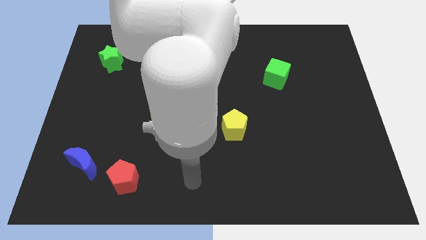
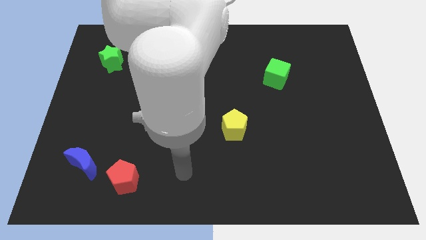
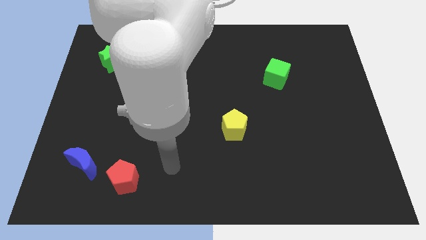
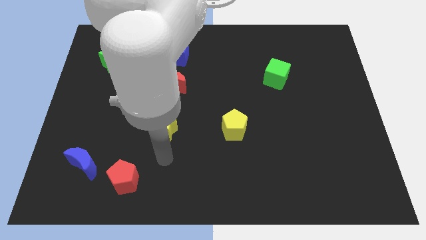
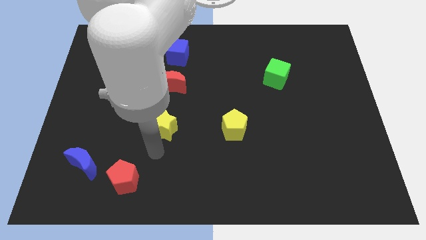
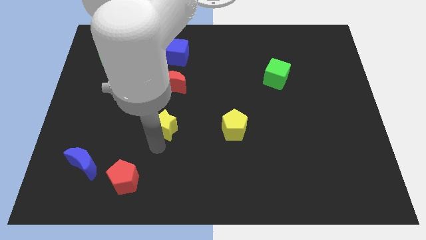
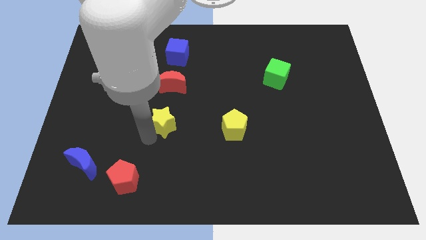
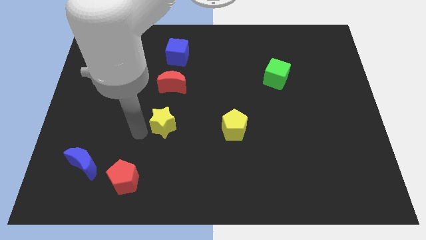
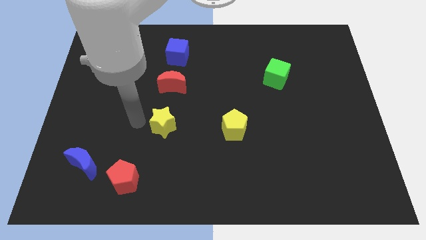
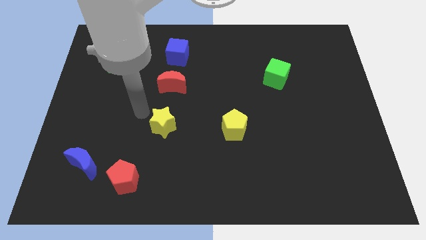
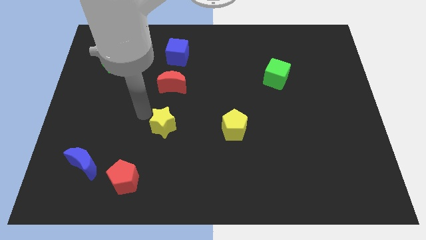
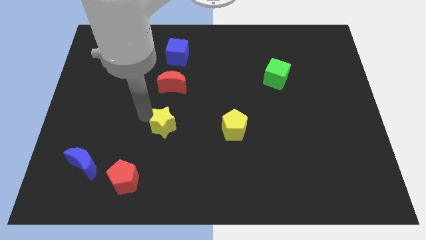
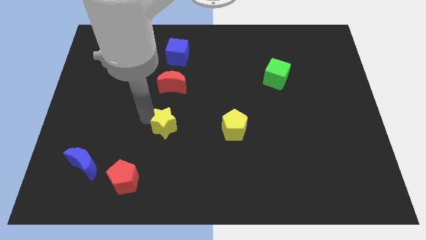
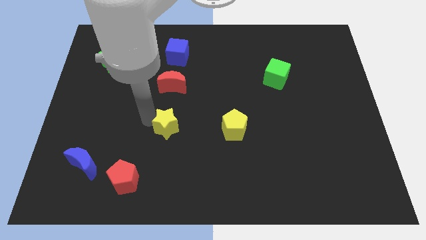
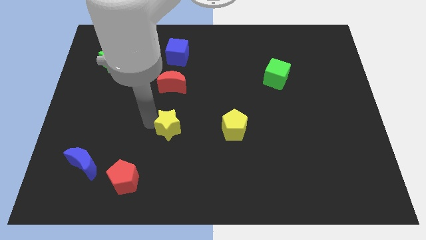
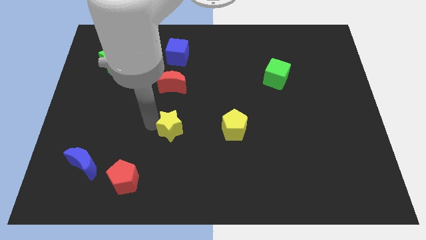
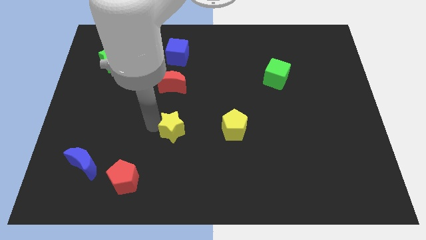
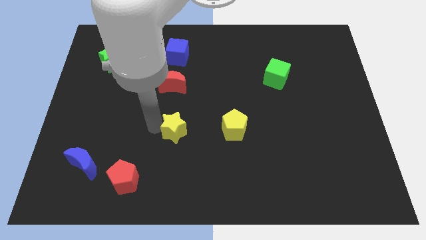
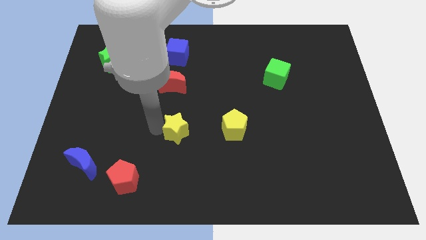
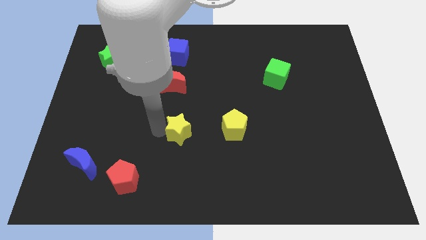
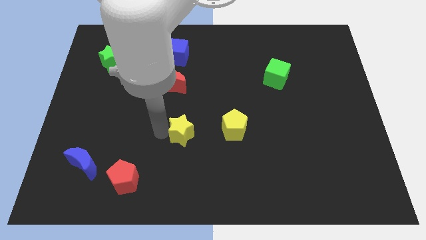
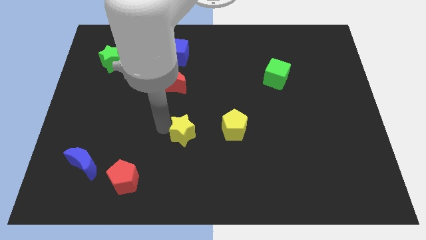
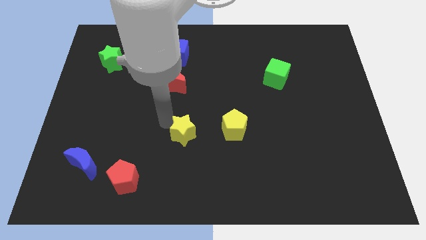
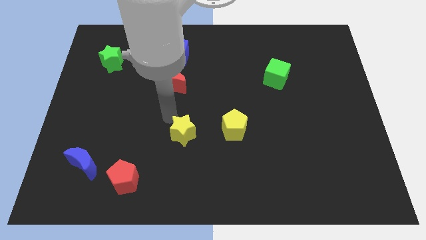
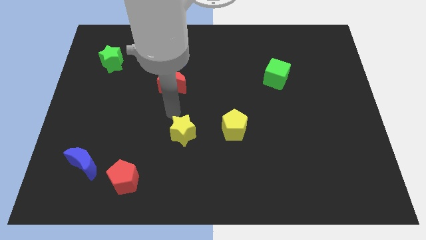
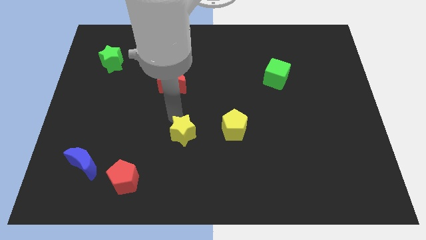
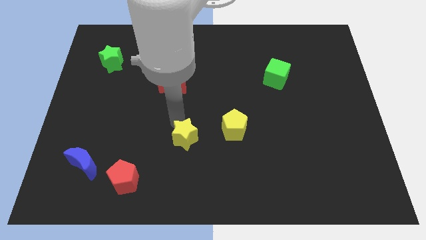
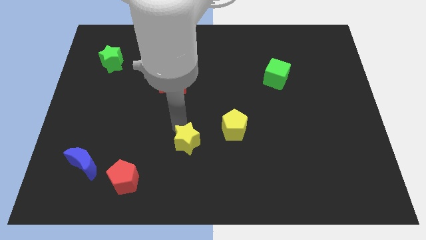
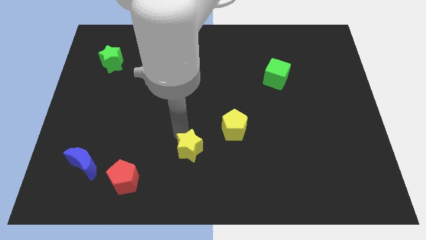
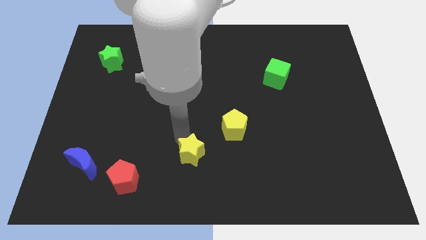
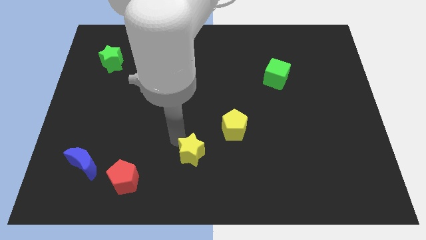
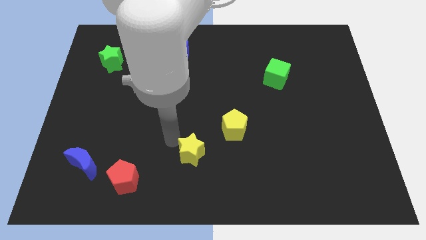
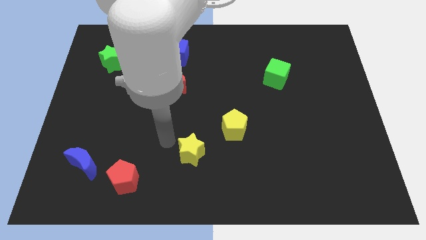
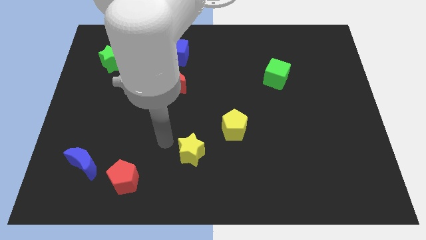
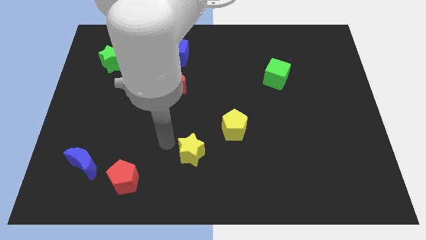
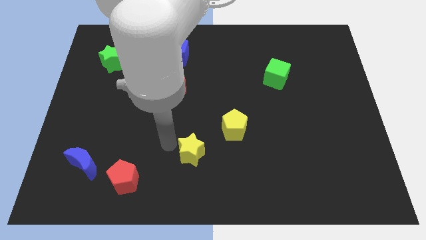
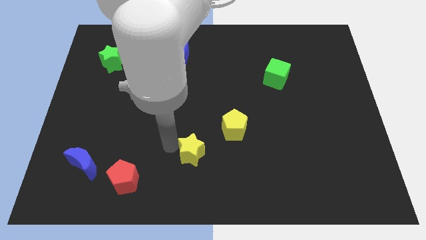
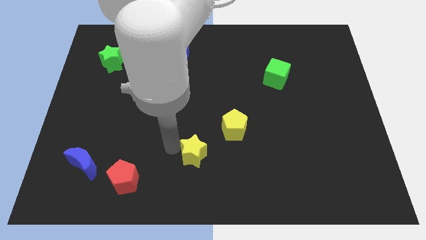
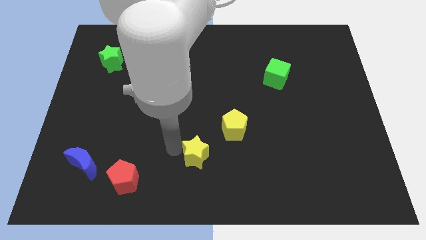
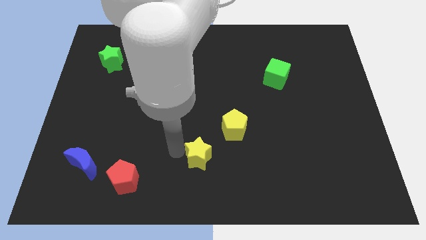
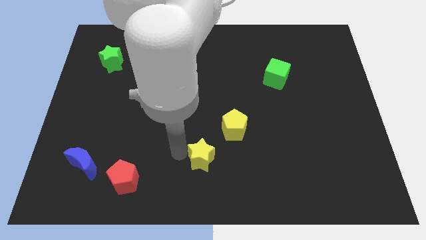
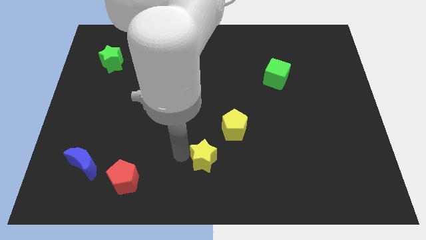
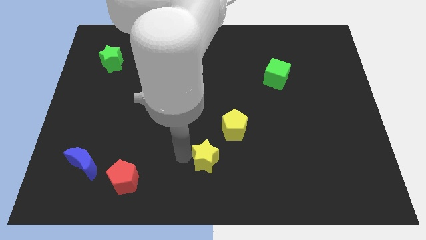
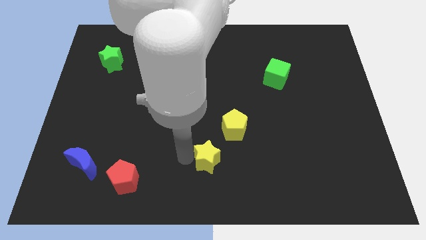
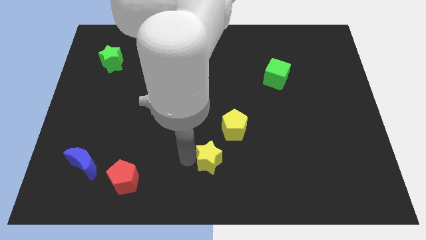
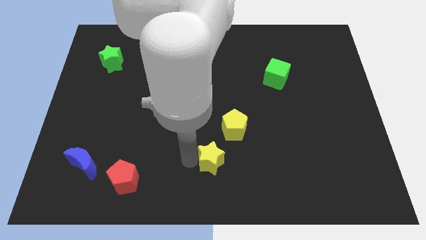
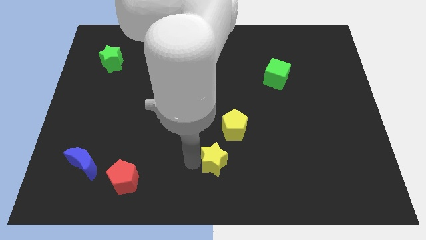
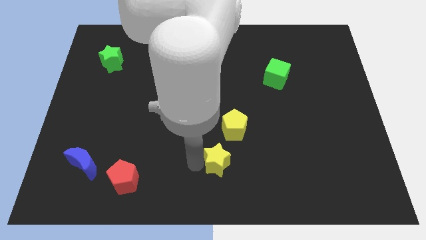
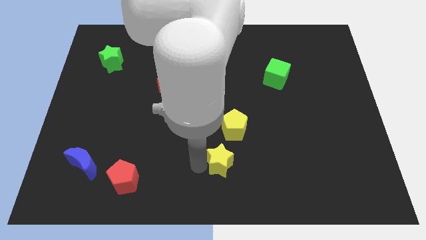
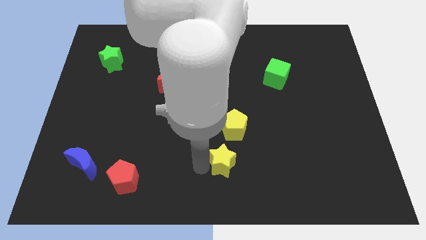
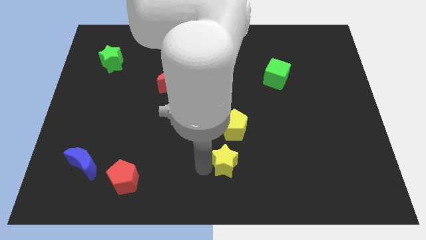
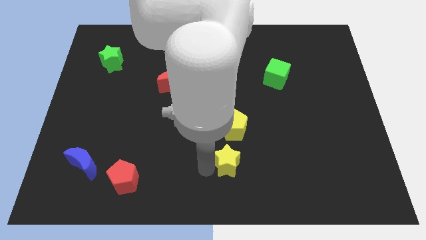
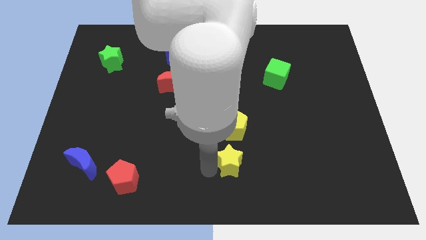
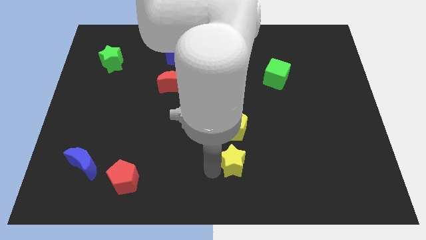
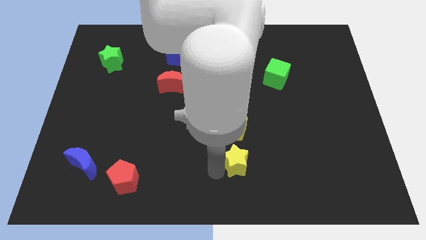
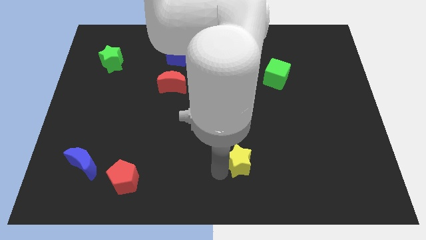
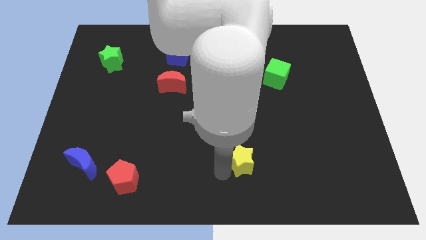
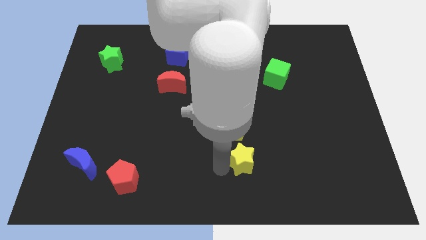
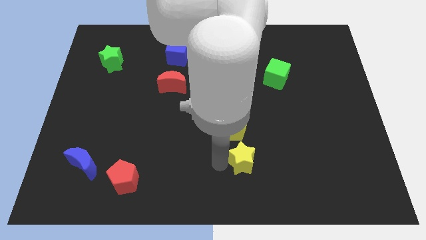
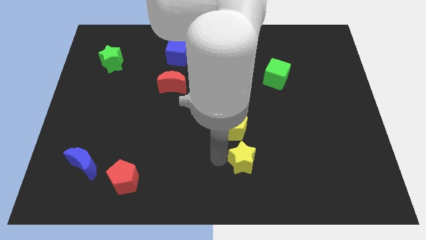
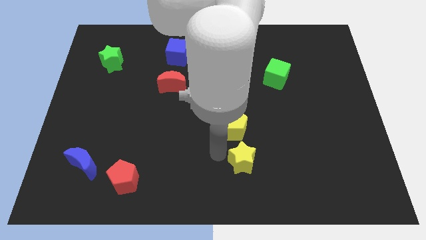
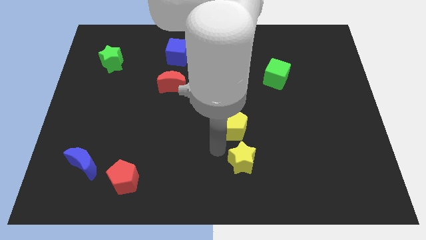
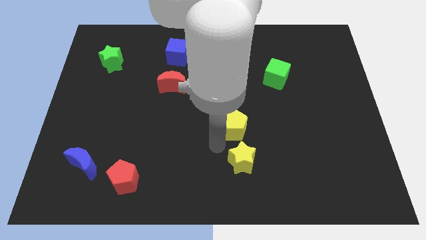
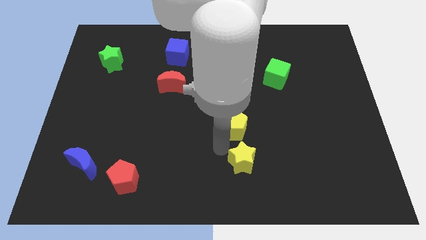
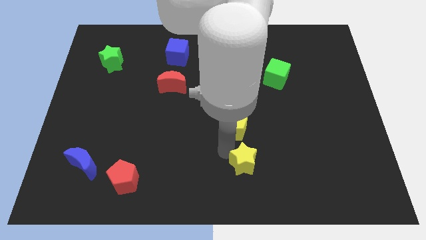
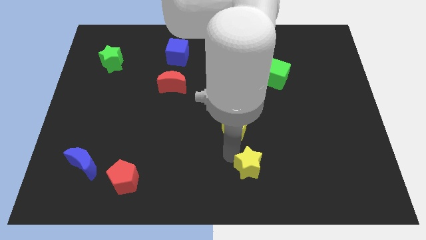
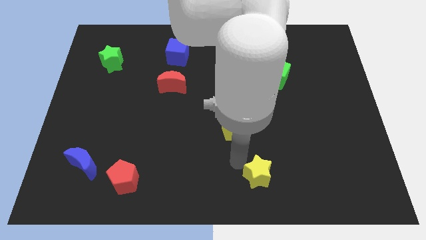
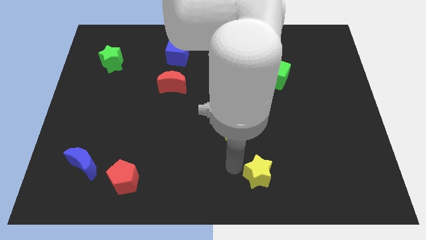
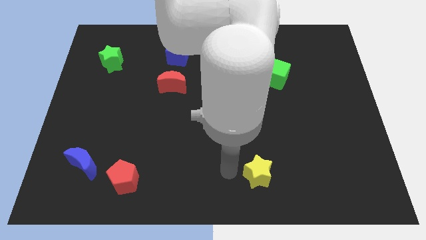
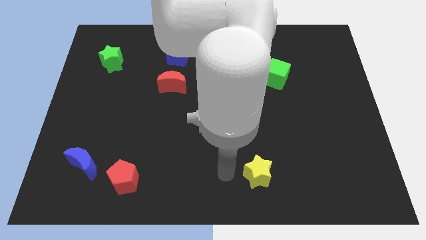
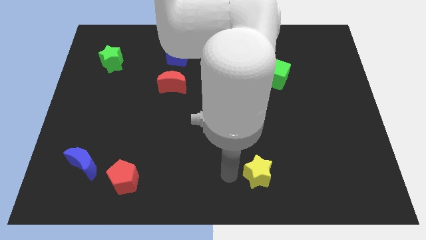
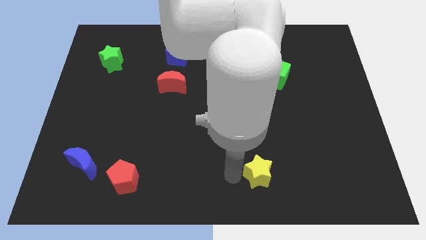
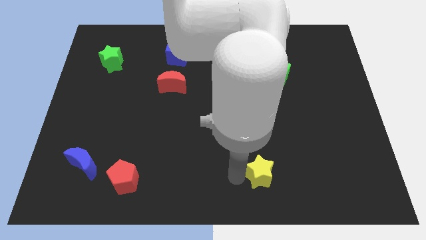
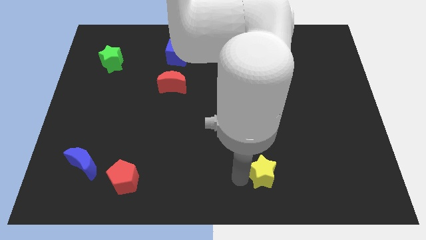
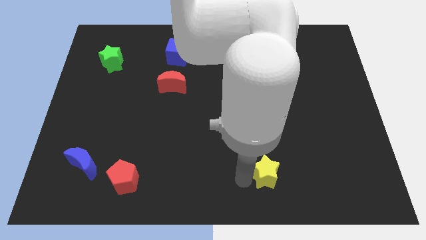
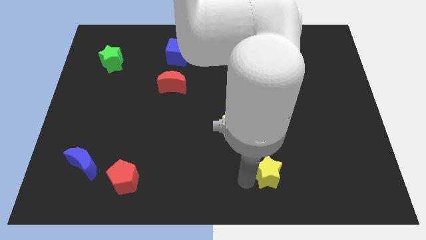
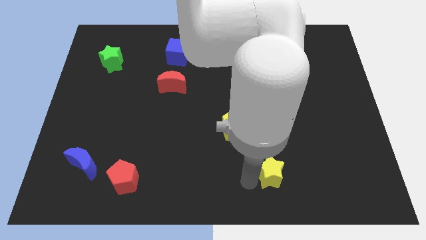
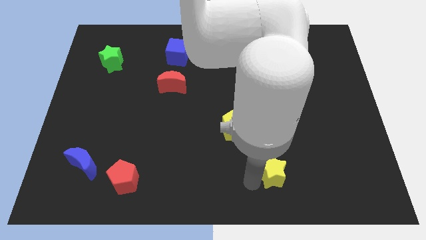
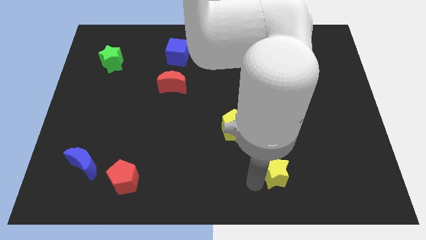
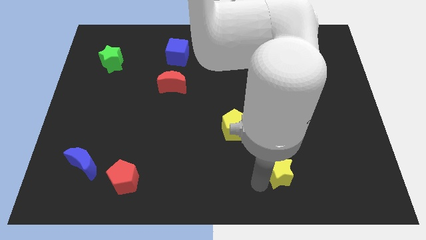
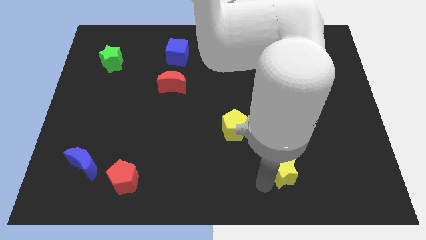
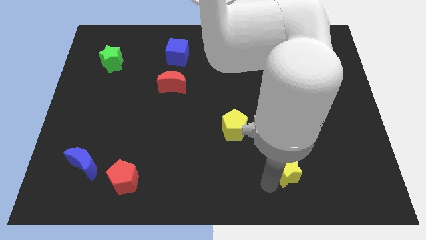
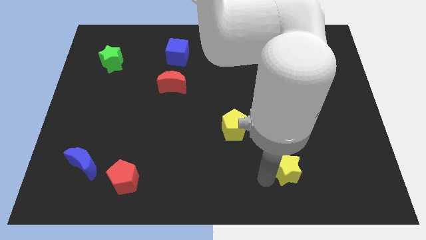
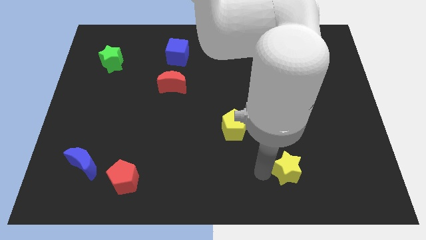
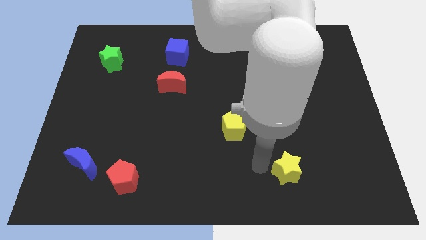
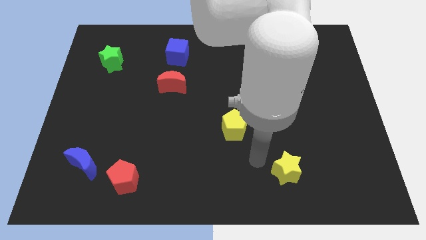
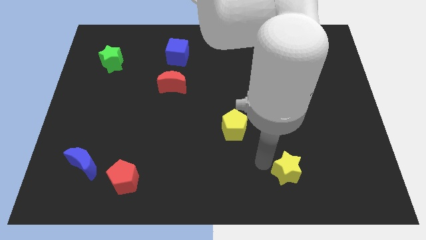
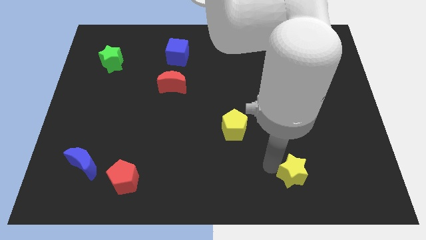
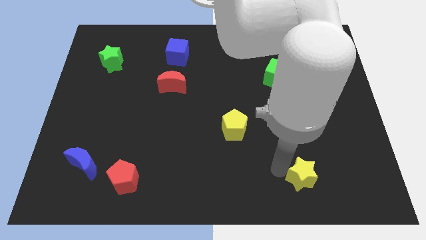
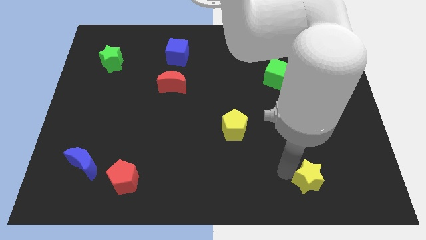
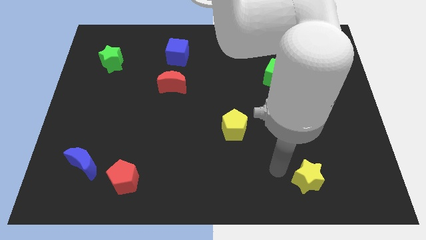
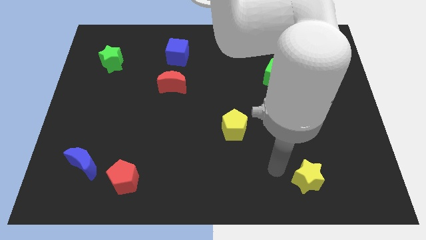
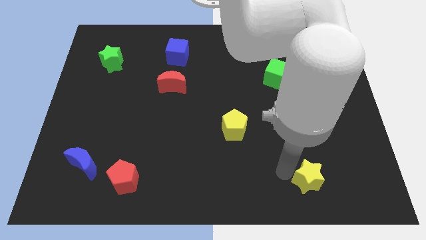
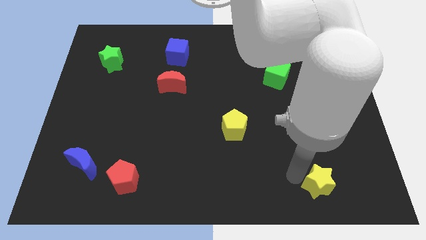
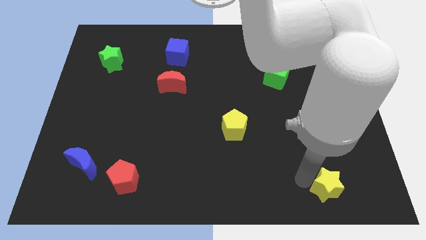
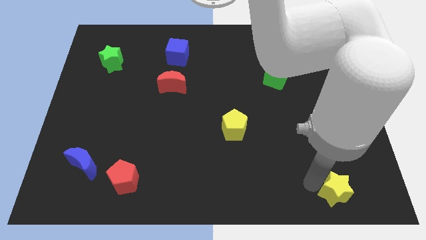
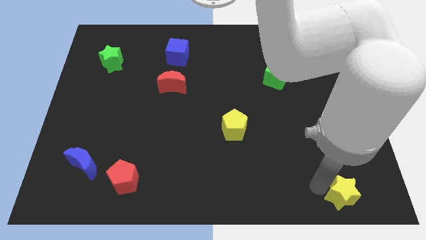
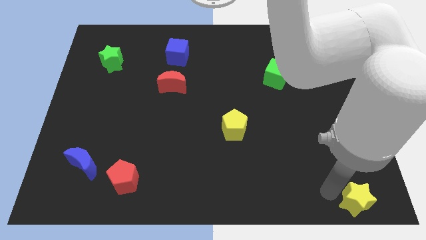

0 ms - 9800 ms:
put the yellow star to the bottom right
